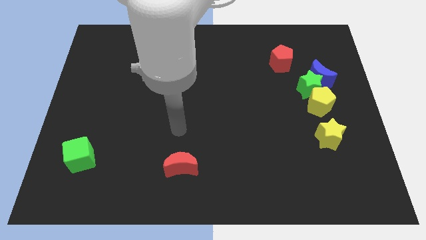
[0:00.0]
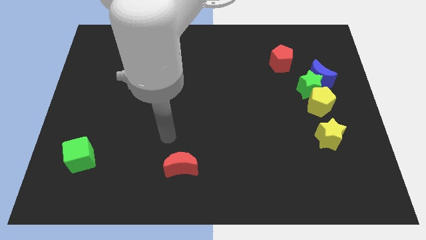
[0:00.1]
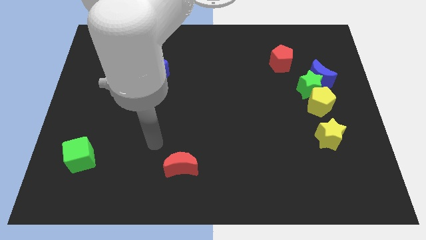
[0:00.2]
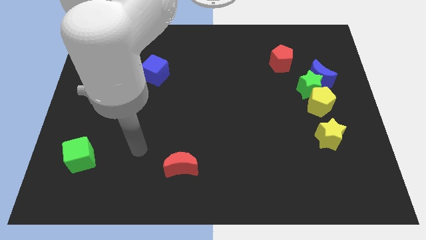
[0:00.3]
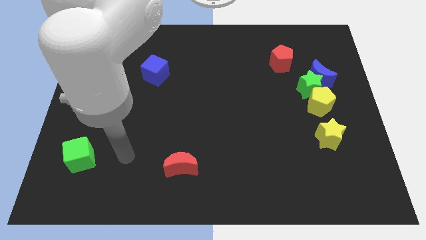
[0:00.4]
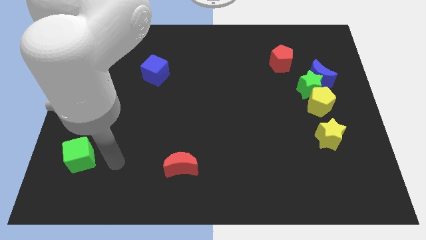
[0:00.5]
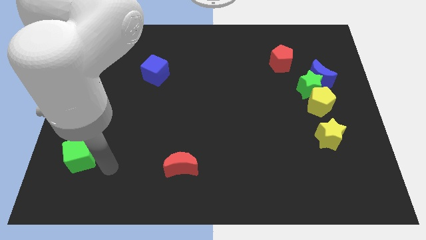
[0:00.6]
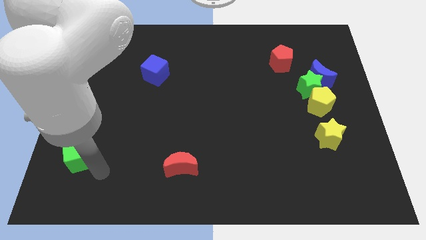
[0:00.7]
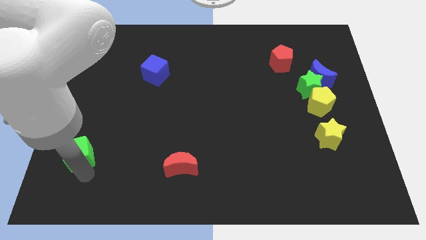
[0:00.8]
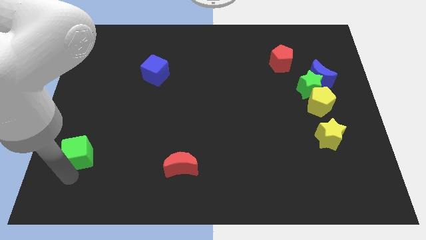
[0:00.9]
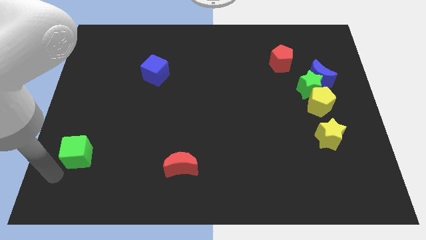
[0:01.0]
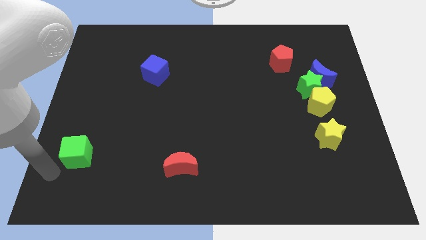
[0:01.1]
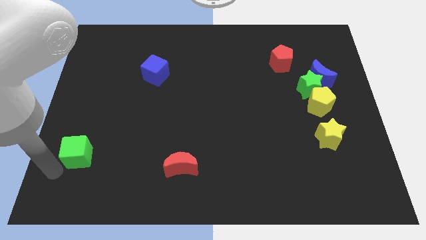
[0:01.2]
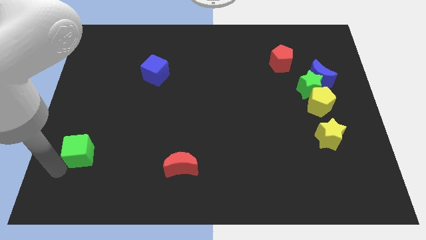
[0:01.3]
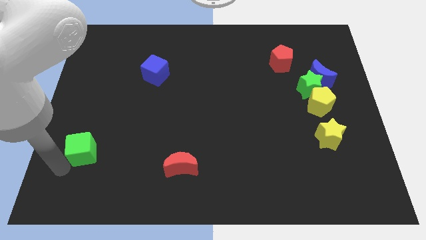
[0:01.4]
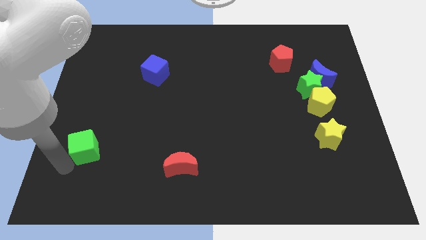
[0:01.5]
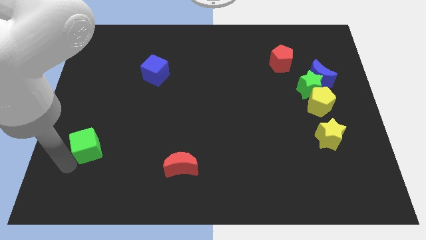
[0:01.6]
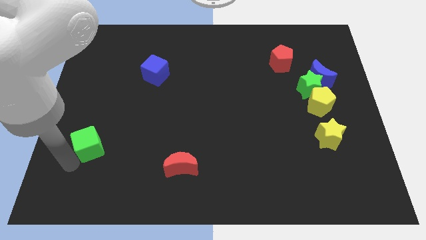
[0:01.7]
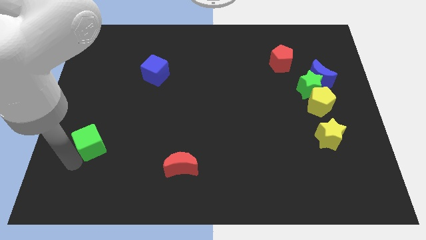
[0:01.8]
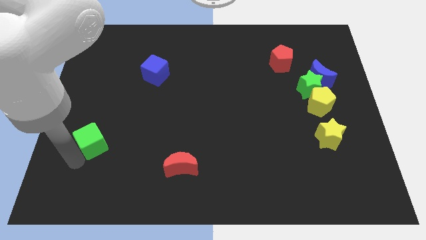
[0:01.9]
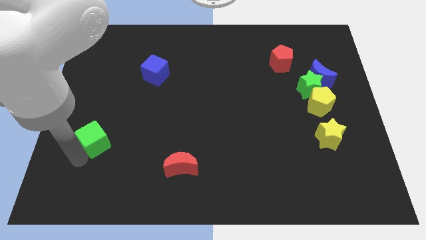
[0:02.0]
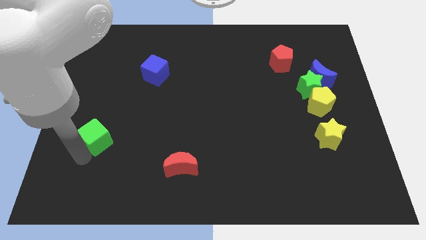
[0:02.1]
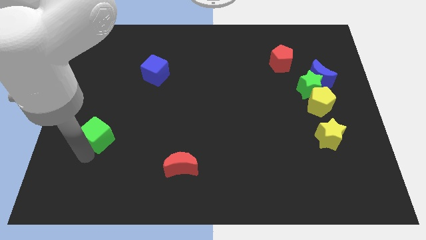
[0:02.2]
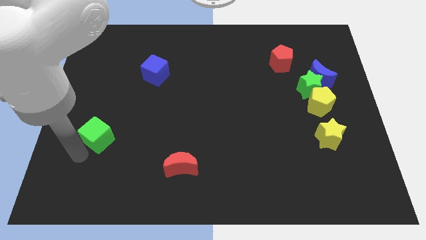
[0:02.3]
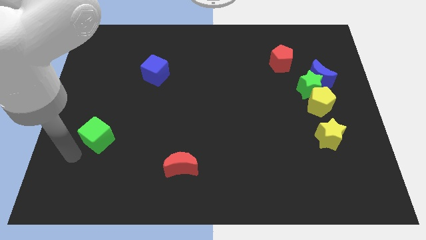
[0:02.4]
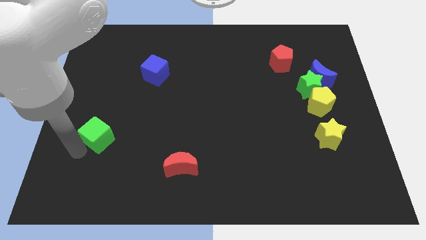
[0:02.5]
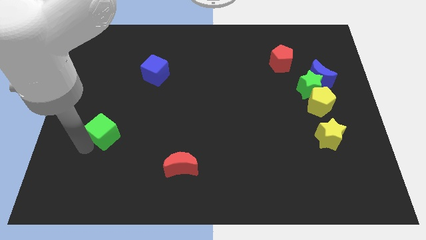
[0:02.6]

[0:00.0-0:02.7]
slightly move the green cube upwards and to the right

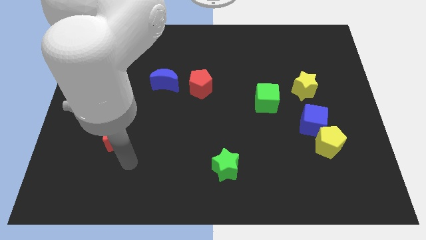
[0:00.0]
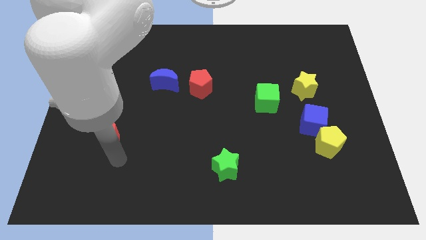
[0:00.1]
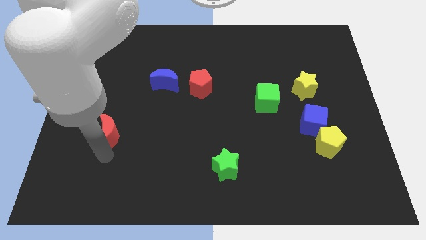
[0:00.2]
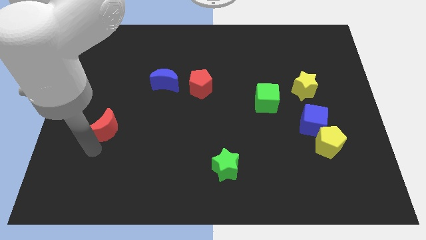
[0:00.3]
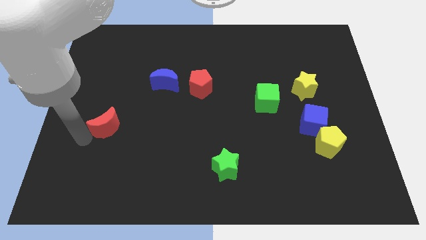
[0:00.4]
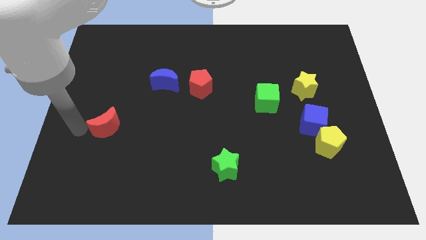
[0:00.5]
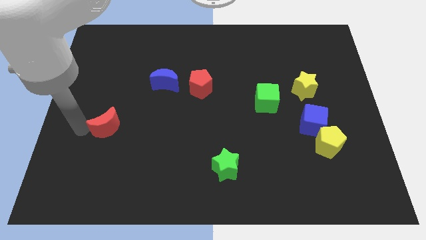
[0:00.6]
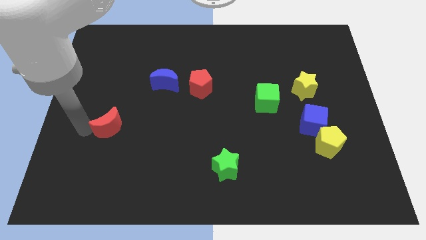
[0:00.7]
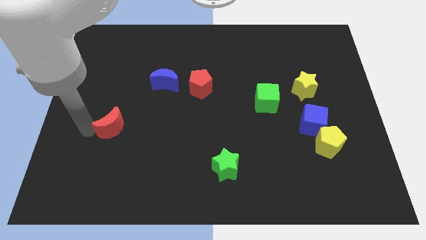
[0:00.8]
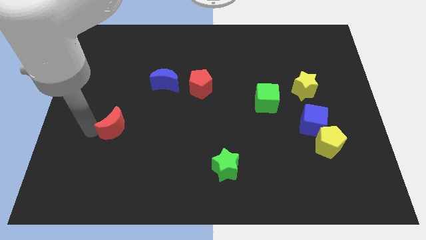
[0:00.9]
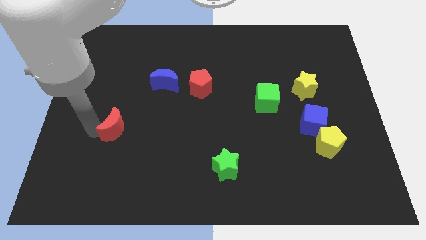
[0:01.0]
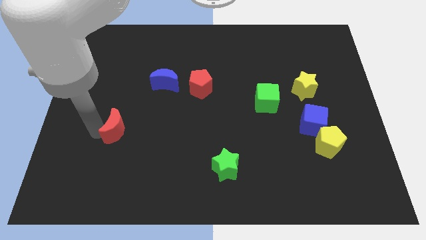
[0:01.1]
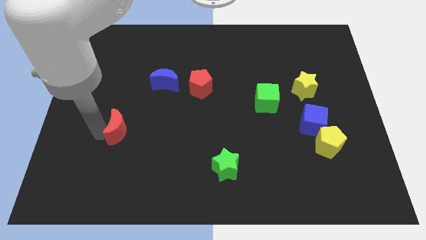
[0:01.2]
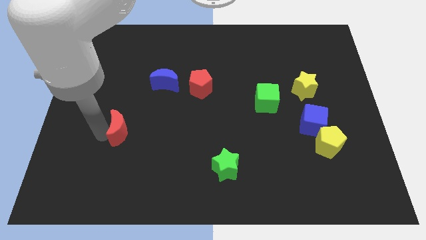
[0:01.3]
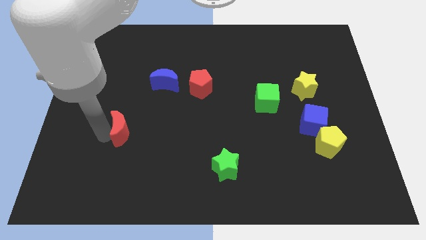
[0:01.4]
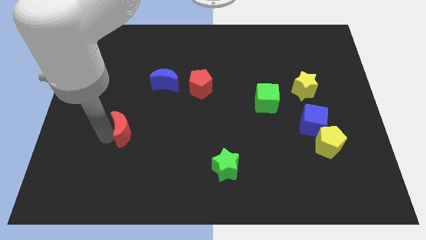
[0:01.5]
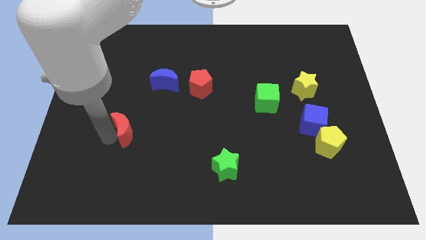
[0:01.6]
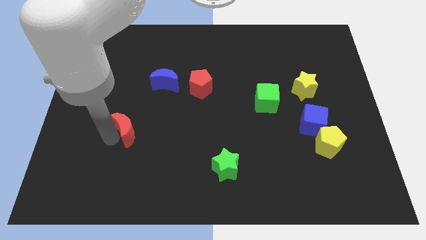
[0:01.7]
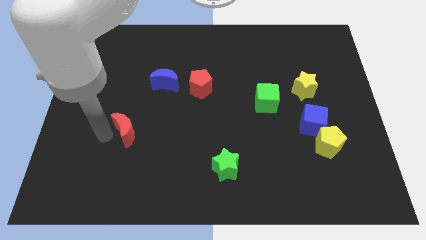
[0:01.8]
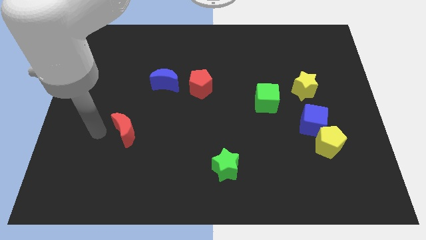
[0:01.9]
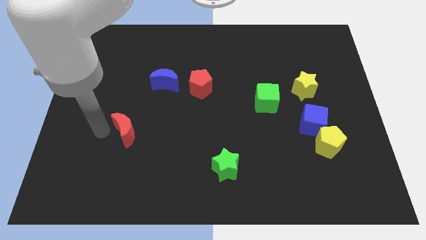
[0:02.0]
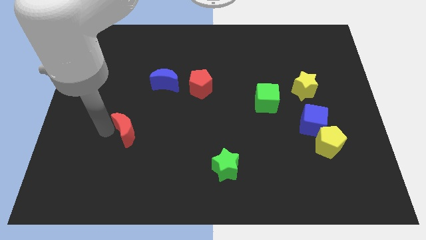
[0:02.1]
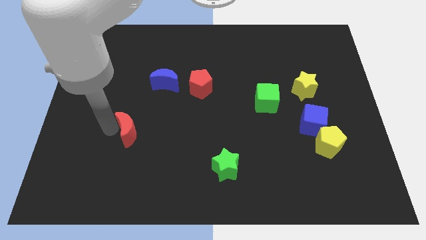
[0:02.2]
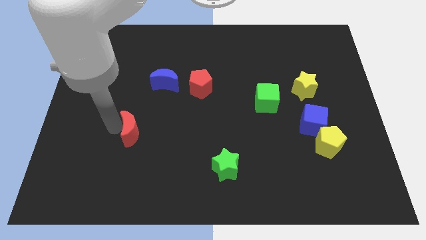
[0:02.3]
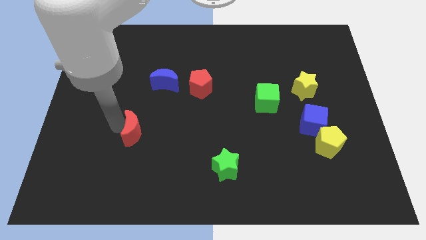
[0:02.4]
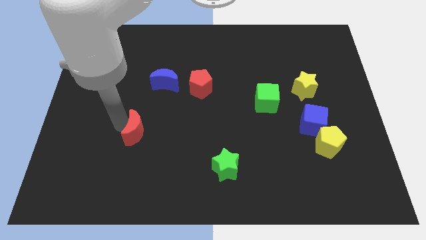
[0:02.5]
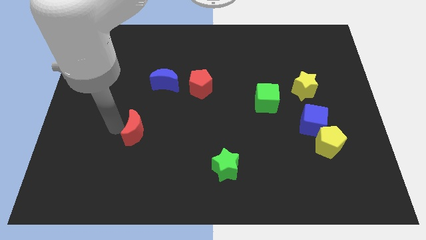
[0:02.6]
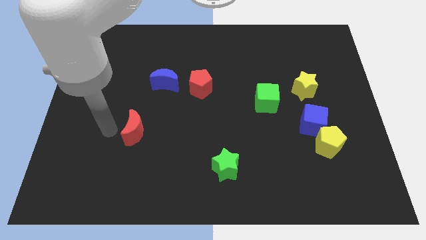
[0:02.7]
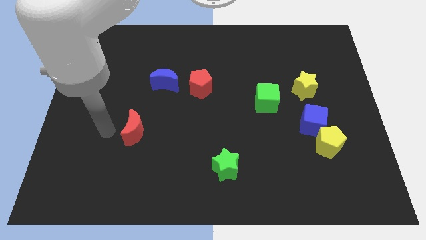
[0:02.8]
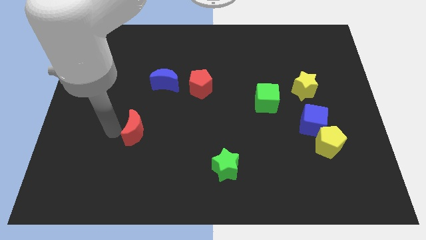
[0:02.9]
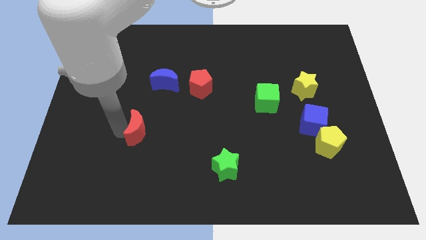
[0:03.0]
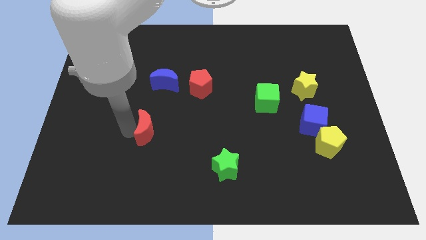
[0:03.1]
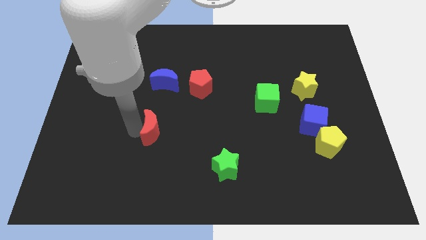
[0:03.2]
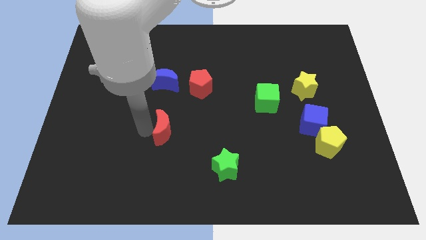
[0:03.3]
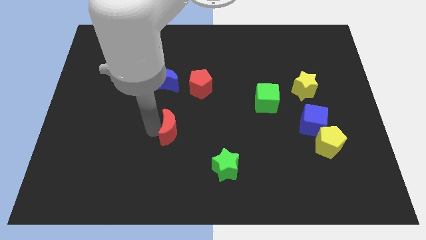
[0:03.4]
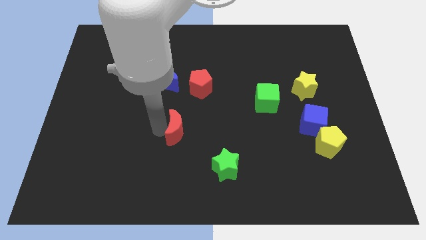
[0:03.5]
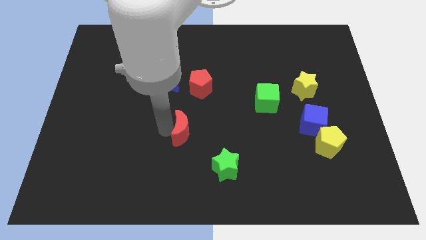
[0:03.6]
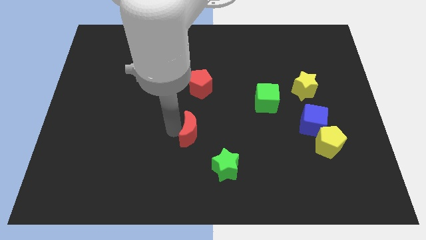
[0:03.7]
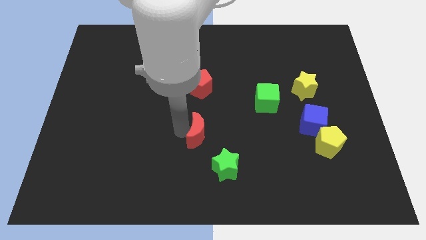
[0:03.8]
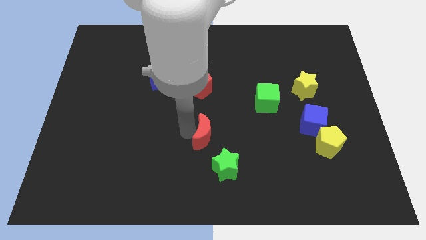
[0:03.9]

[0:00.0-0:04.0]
move the red moon right

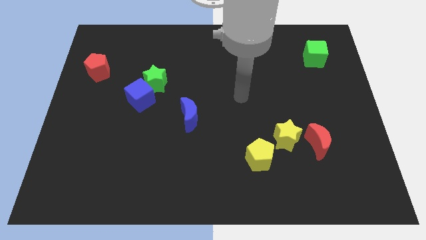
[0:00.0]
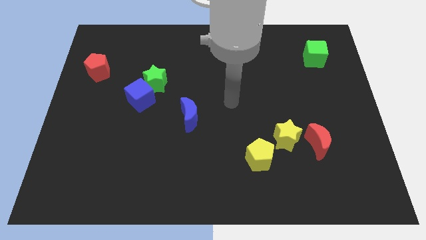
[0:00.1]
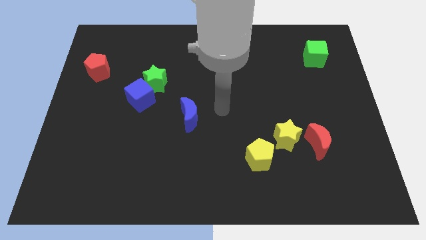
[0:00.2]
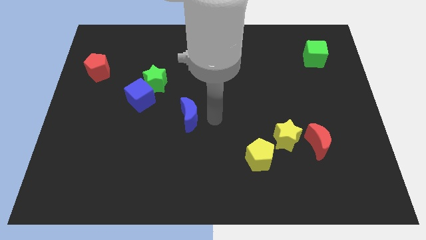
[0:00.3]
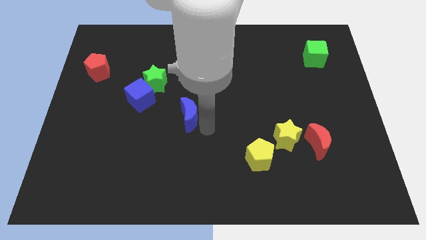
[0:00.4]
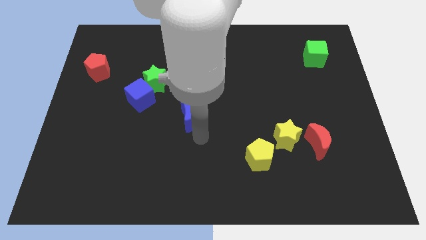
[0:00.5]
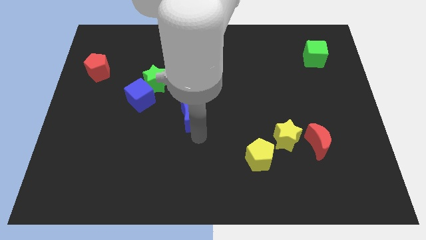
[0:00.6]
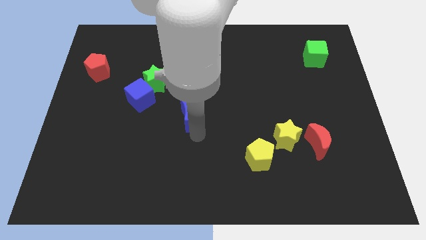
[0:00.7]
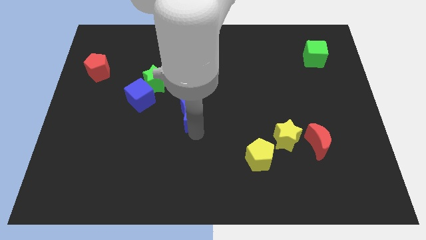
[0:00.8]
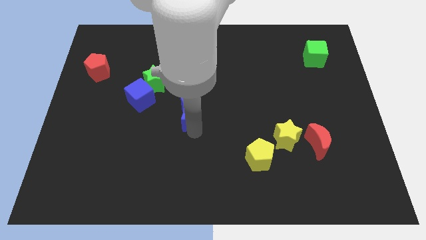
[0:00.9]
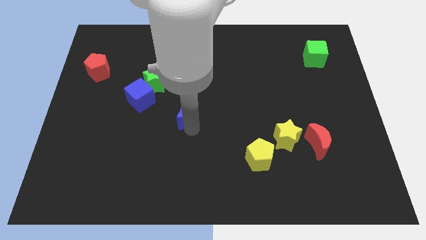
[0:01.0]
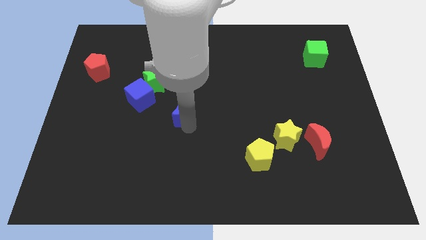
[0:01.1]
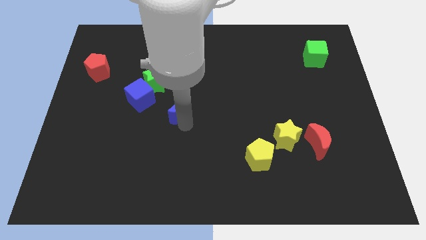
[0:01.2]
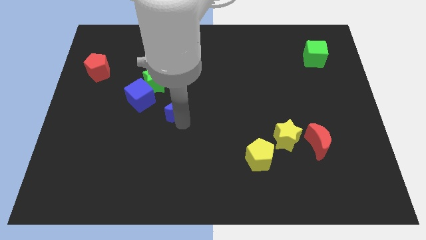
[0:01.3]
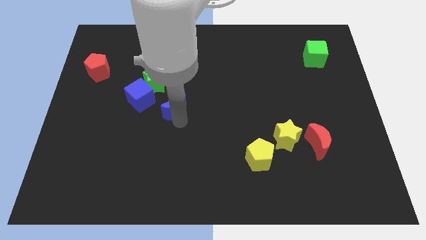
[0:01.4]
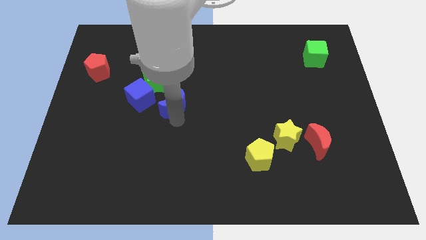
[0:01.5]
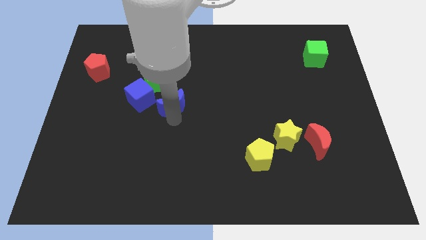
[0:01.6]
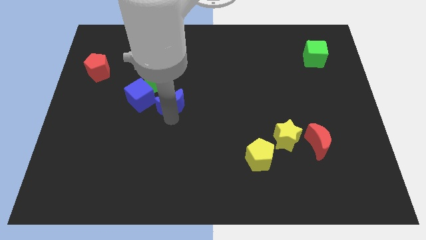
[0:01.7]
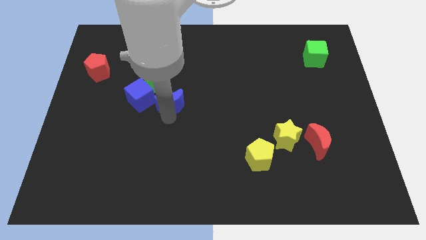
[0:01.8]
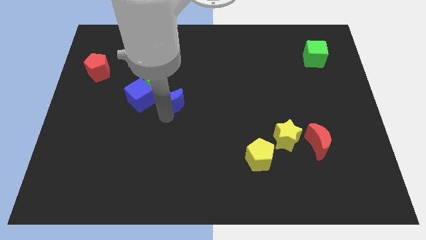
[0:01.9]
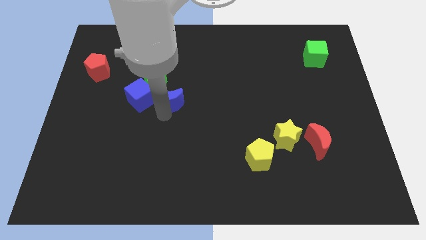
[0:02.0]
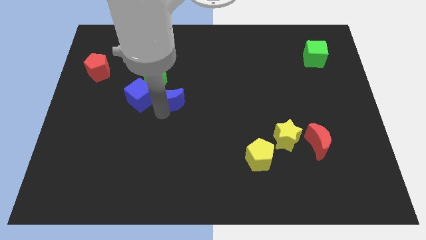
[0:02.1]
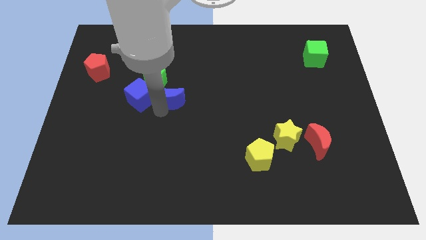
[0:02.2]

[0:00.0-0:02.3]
slightly slide the blue moon upwards and left
